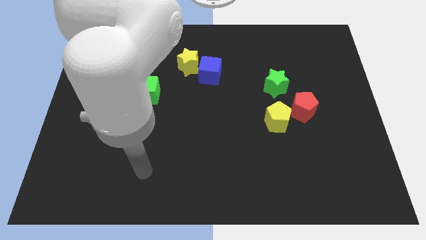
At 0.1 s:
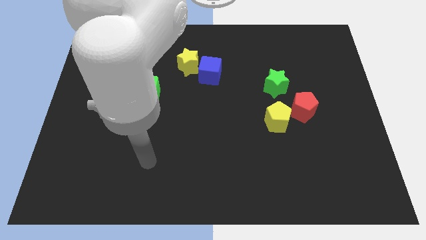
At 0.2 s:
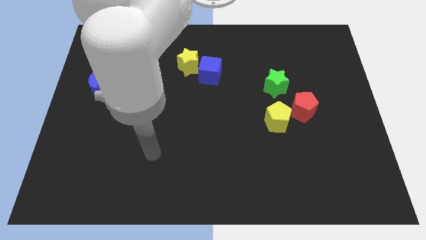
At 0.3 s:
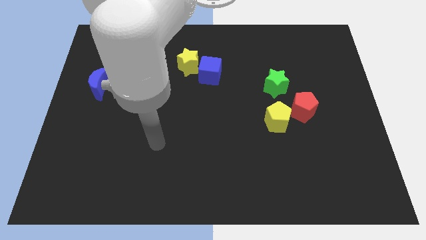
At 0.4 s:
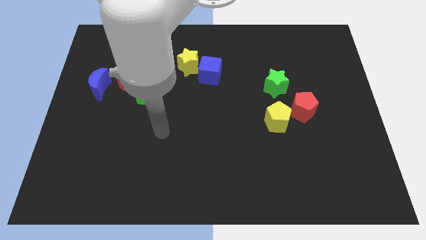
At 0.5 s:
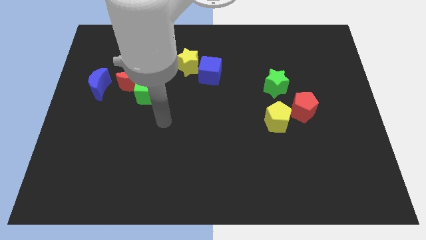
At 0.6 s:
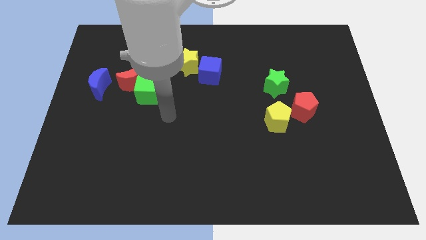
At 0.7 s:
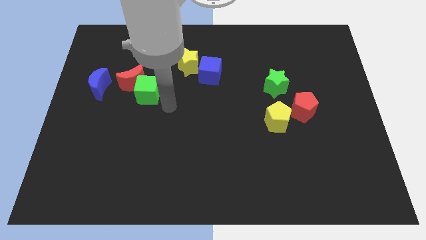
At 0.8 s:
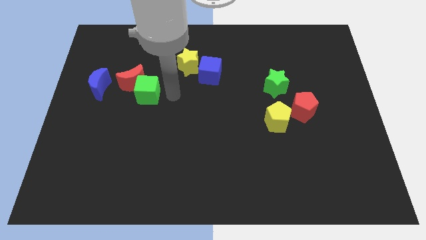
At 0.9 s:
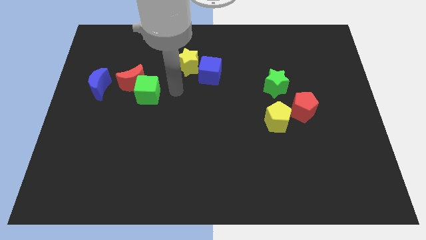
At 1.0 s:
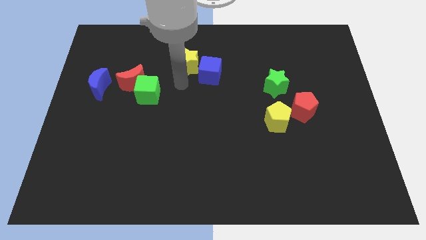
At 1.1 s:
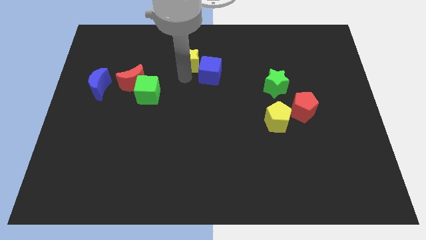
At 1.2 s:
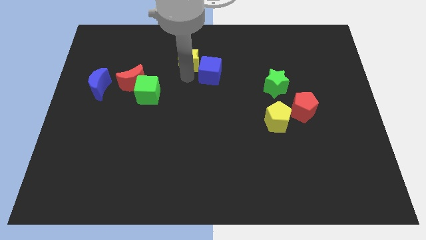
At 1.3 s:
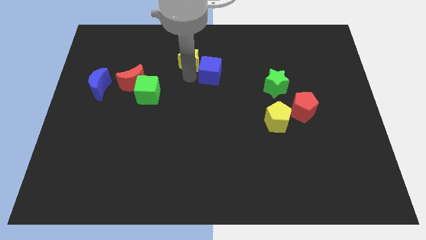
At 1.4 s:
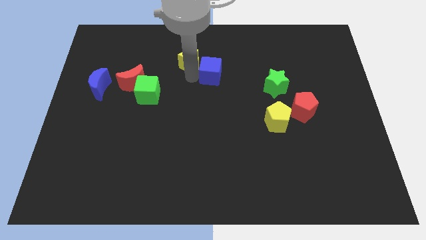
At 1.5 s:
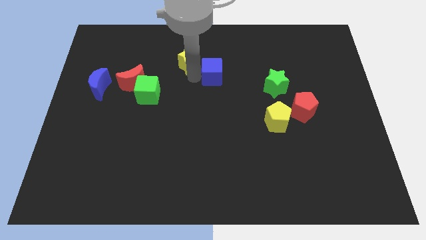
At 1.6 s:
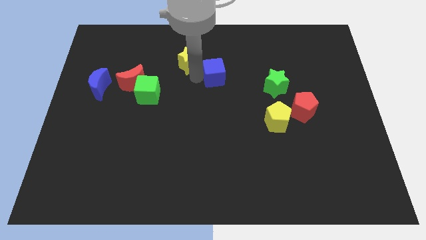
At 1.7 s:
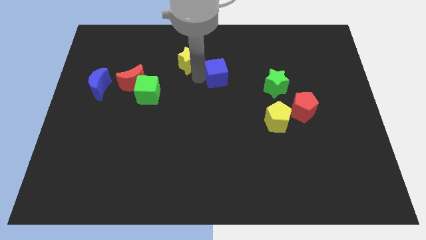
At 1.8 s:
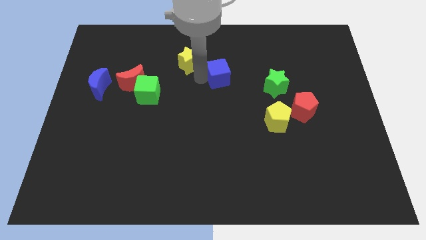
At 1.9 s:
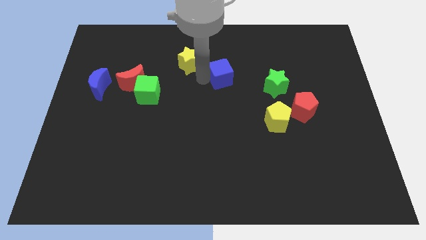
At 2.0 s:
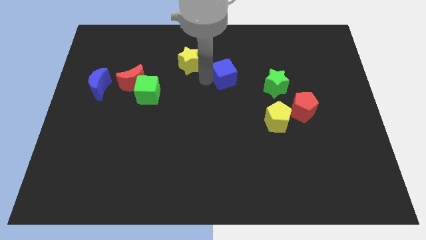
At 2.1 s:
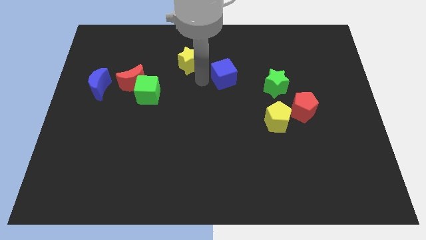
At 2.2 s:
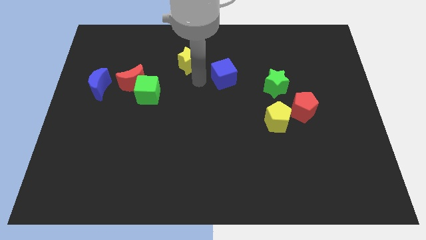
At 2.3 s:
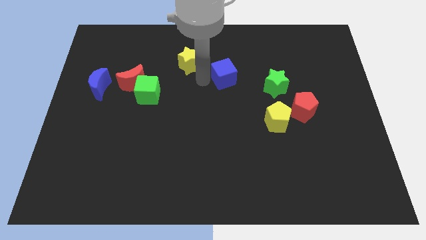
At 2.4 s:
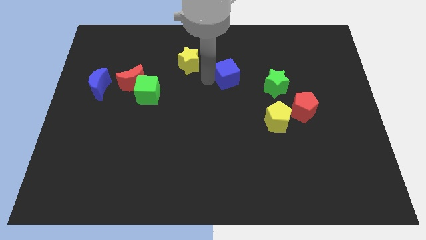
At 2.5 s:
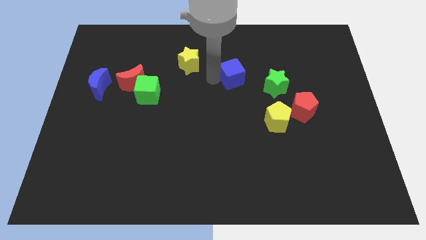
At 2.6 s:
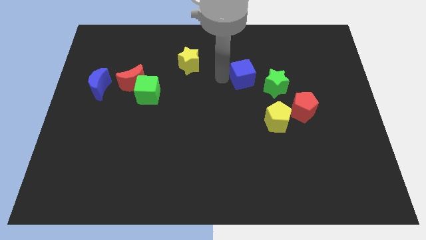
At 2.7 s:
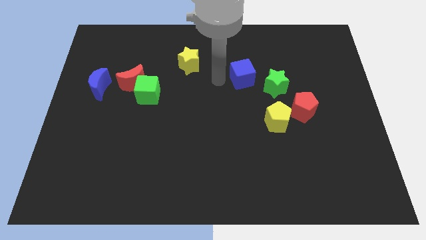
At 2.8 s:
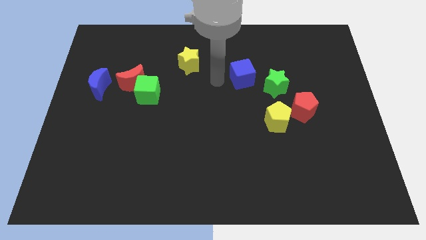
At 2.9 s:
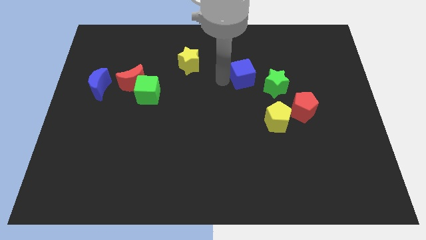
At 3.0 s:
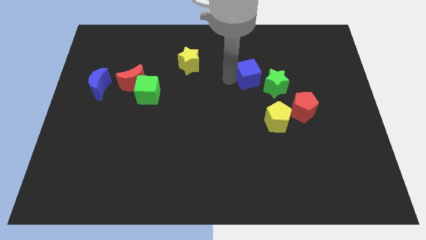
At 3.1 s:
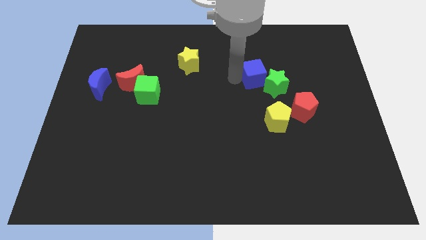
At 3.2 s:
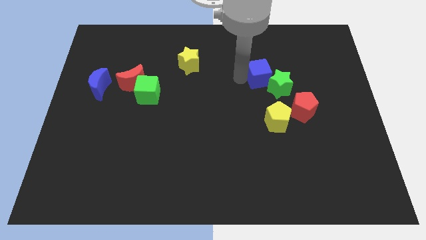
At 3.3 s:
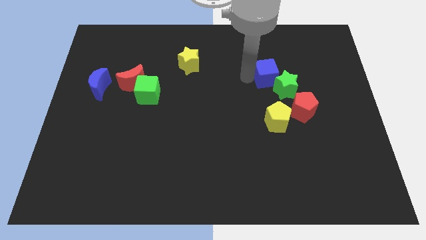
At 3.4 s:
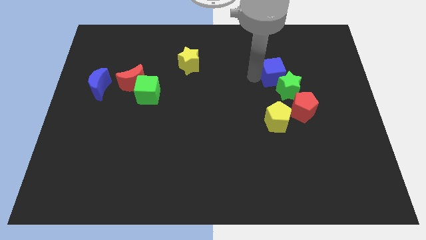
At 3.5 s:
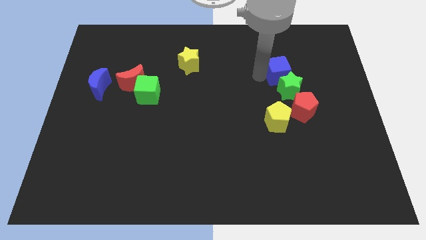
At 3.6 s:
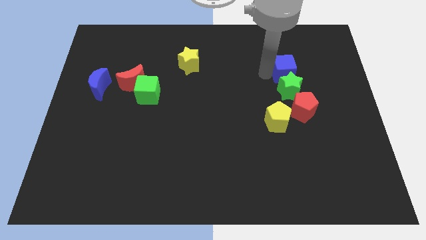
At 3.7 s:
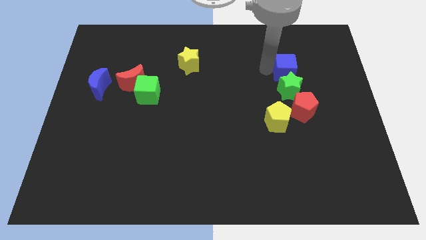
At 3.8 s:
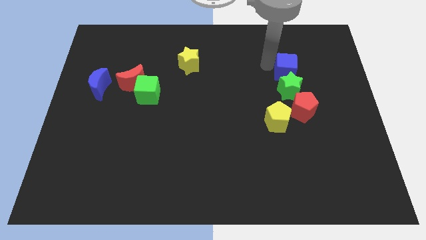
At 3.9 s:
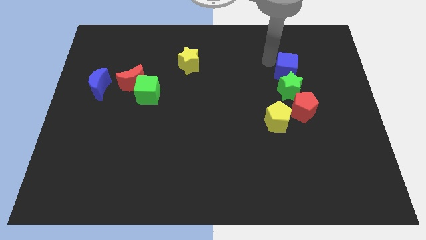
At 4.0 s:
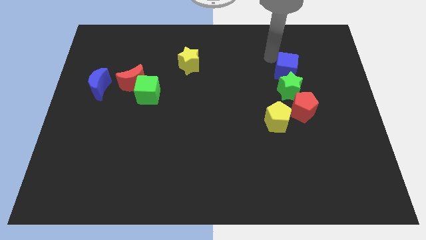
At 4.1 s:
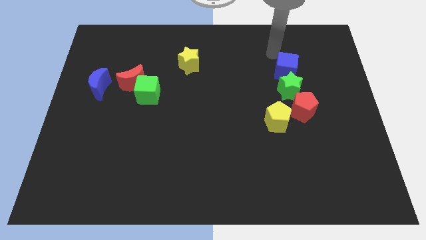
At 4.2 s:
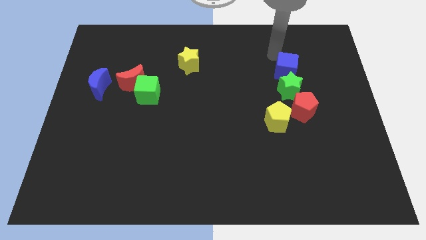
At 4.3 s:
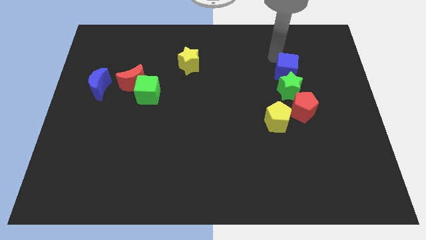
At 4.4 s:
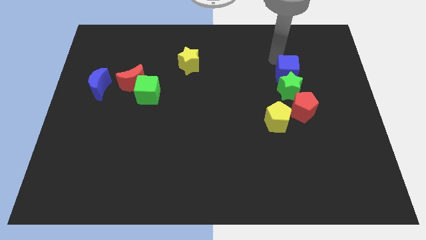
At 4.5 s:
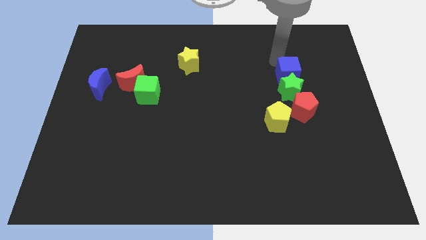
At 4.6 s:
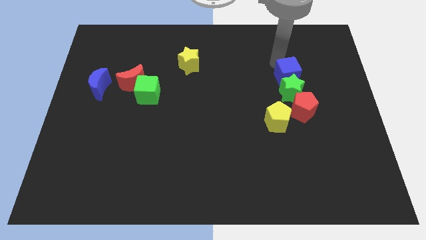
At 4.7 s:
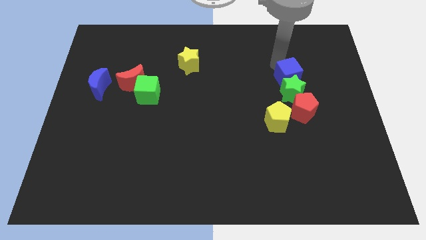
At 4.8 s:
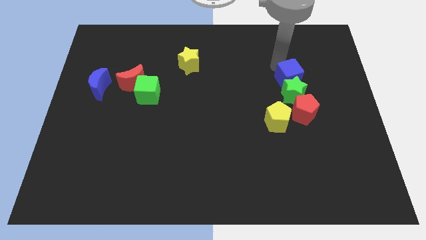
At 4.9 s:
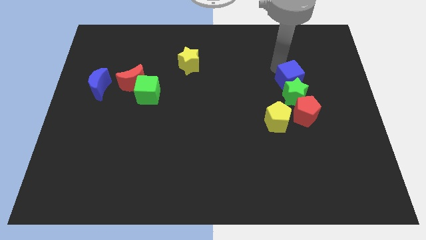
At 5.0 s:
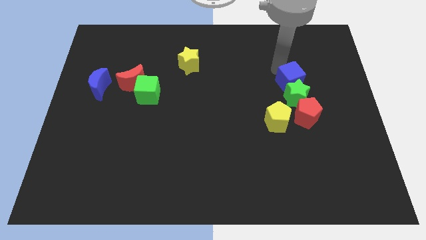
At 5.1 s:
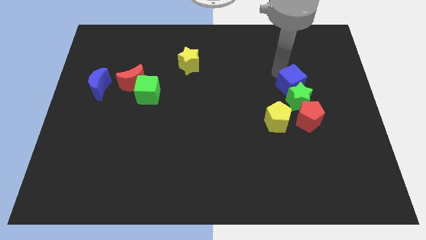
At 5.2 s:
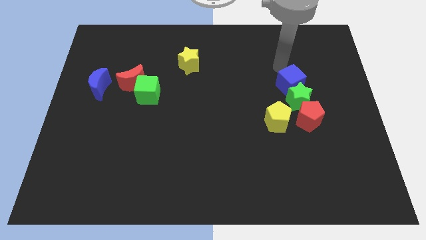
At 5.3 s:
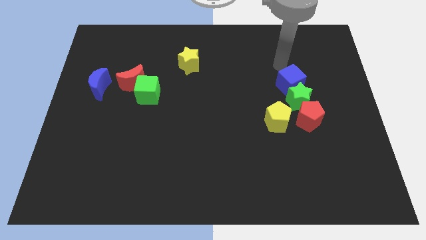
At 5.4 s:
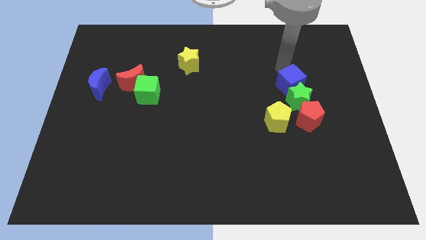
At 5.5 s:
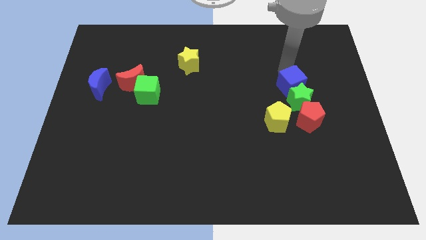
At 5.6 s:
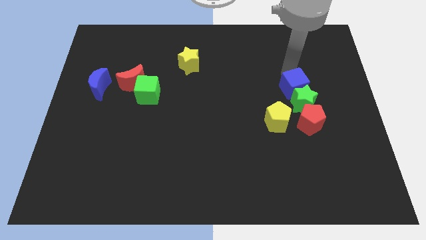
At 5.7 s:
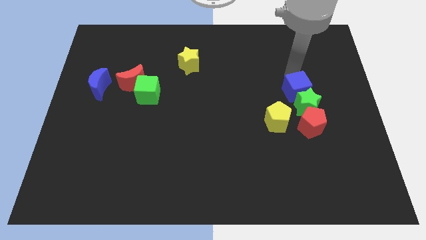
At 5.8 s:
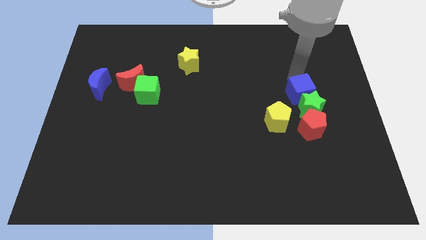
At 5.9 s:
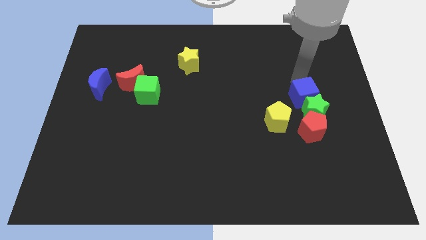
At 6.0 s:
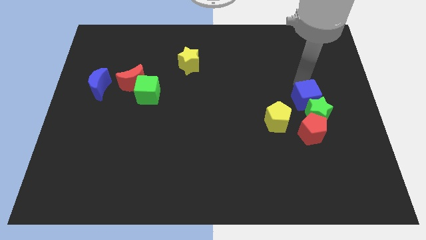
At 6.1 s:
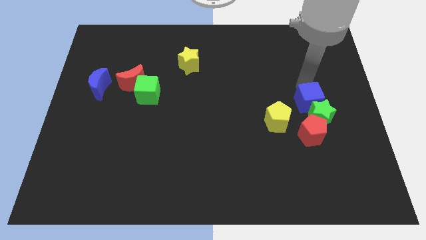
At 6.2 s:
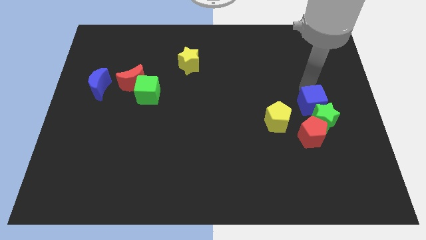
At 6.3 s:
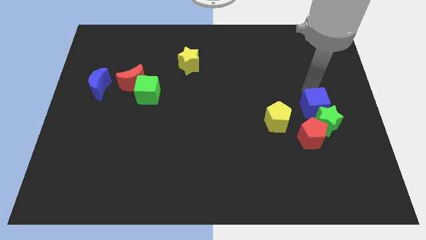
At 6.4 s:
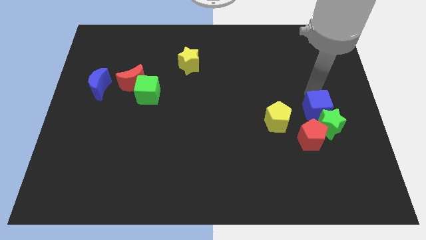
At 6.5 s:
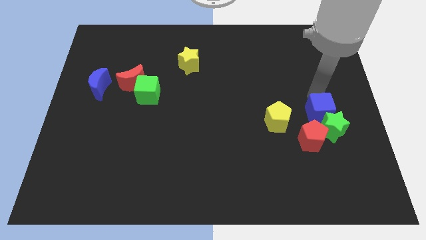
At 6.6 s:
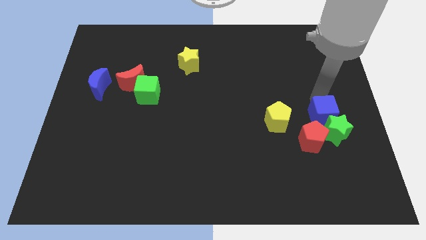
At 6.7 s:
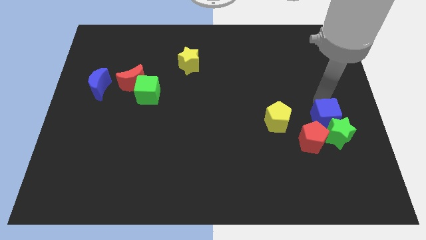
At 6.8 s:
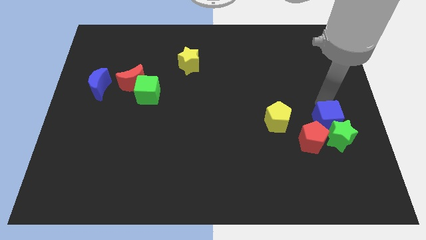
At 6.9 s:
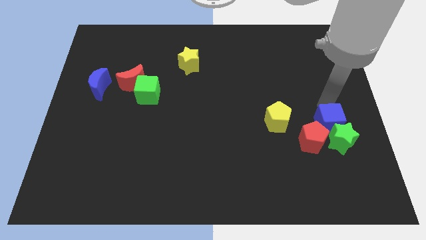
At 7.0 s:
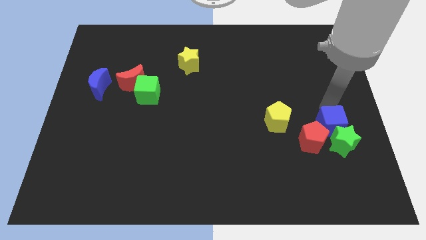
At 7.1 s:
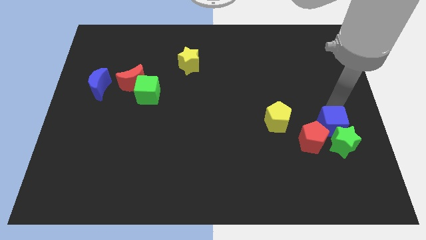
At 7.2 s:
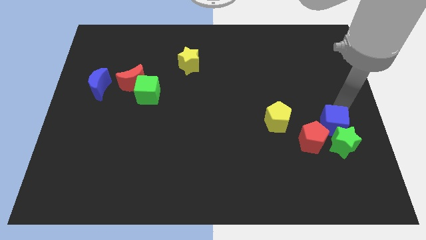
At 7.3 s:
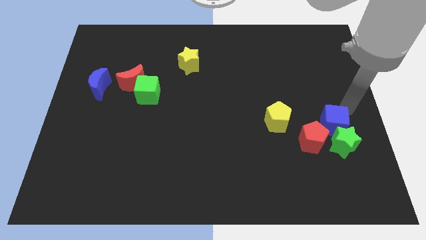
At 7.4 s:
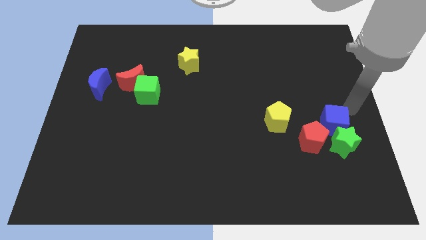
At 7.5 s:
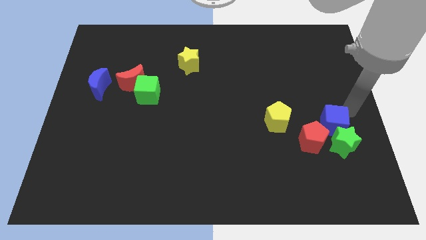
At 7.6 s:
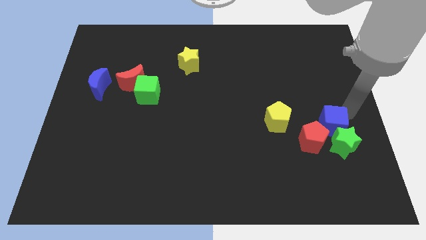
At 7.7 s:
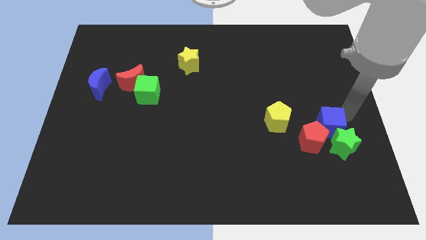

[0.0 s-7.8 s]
slide the blue cube to the red pentagon
